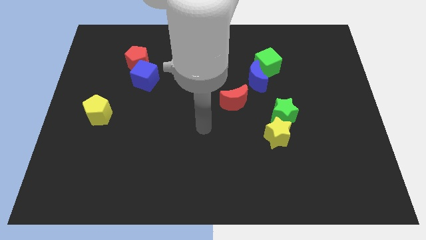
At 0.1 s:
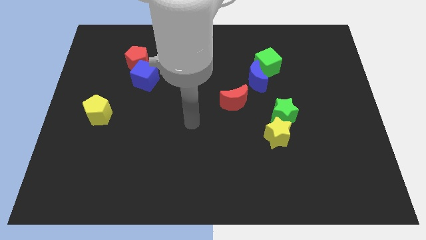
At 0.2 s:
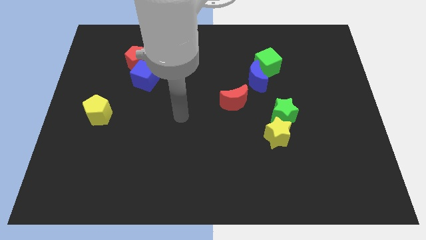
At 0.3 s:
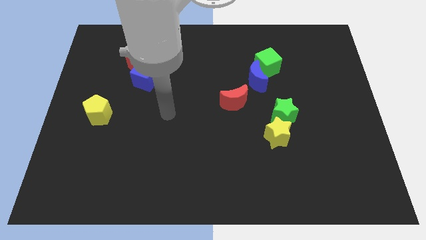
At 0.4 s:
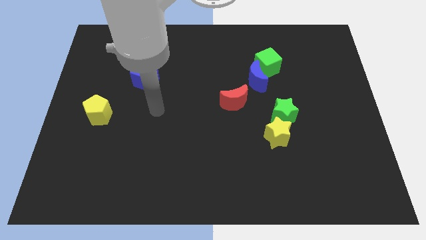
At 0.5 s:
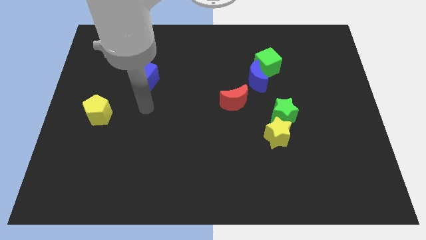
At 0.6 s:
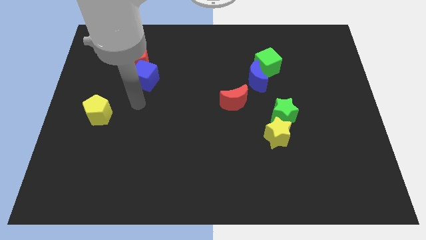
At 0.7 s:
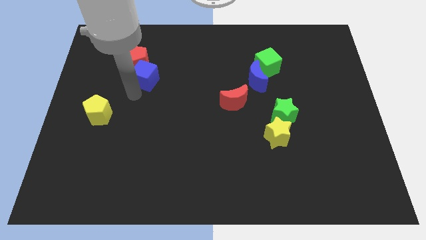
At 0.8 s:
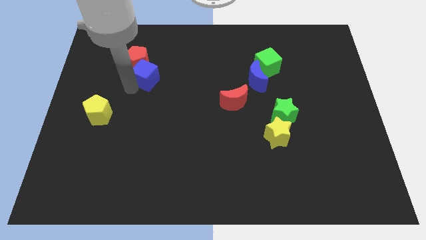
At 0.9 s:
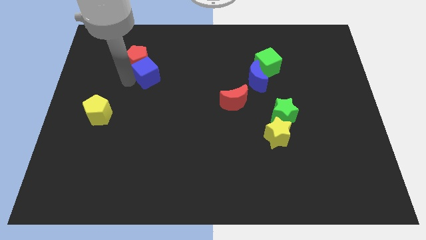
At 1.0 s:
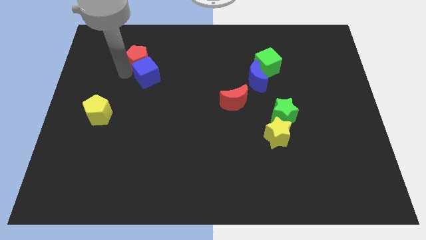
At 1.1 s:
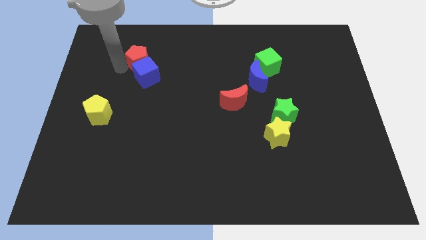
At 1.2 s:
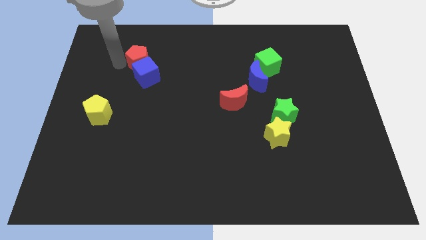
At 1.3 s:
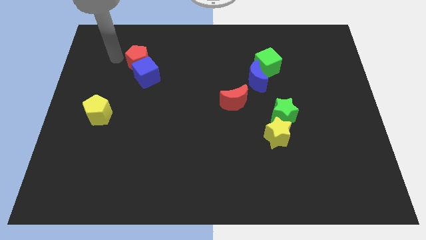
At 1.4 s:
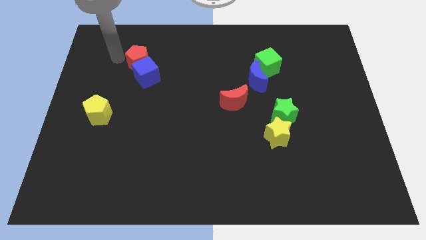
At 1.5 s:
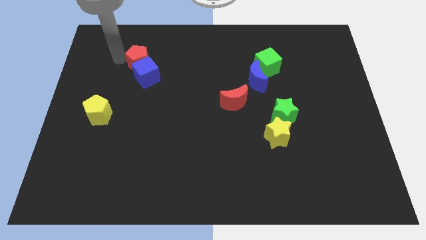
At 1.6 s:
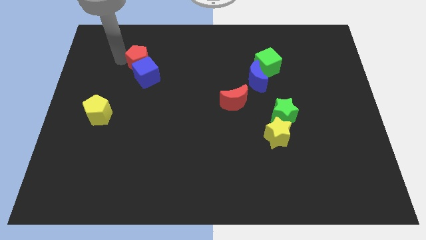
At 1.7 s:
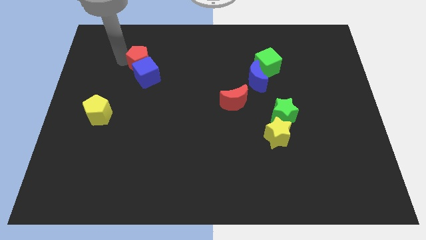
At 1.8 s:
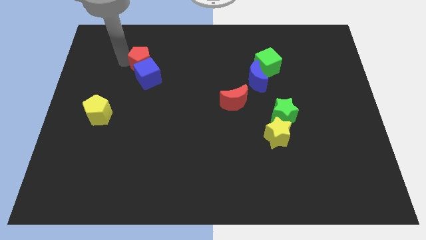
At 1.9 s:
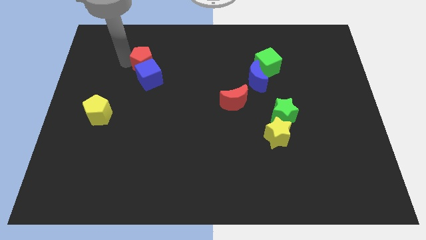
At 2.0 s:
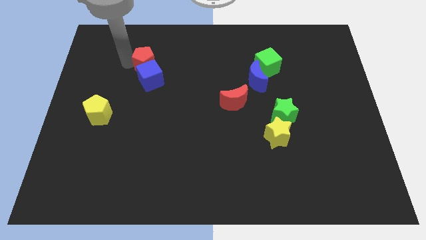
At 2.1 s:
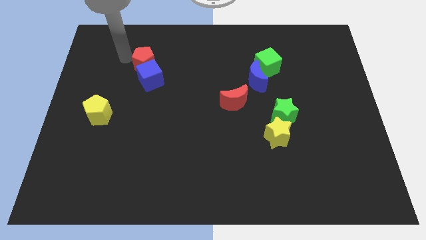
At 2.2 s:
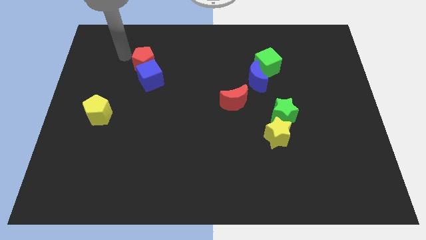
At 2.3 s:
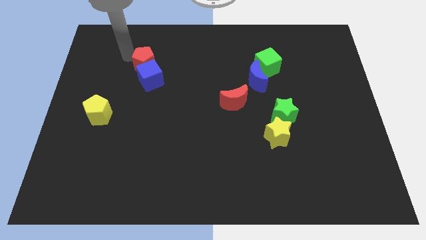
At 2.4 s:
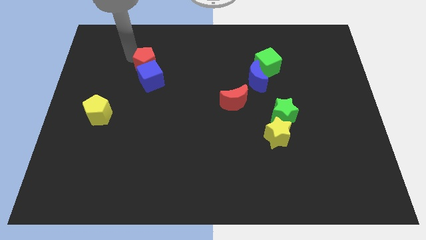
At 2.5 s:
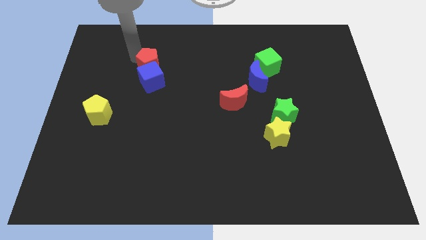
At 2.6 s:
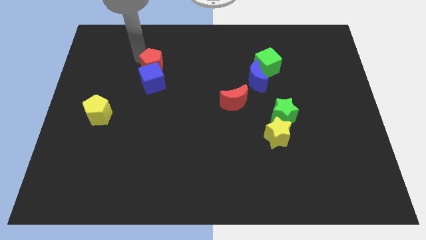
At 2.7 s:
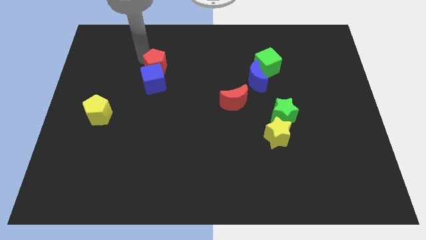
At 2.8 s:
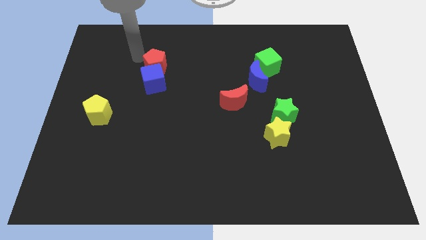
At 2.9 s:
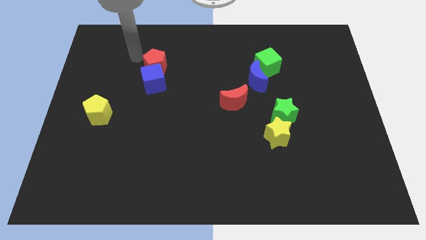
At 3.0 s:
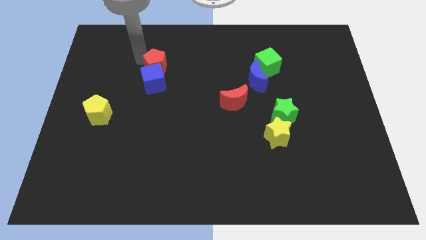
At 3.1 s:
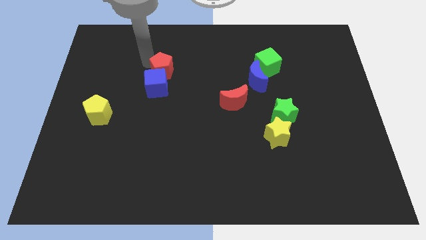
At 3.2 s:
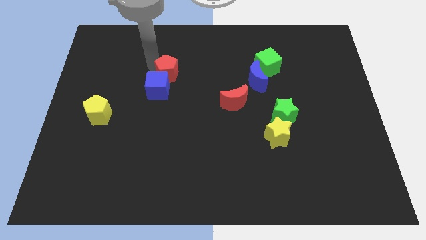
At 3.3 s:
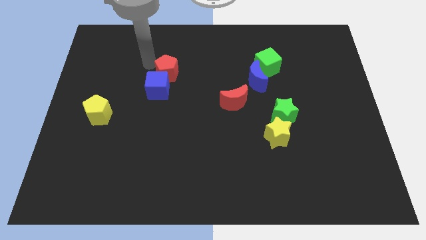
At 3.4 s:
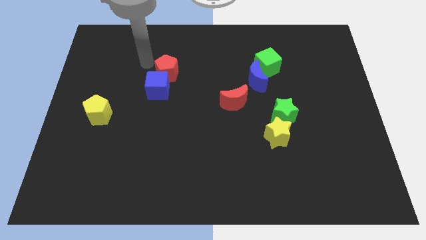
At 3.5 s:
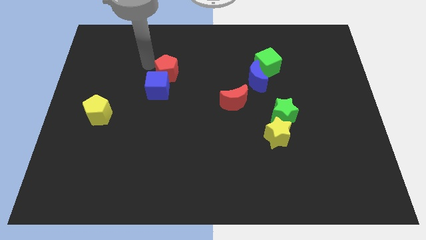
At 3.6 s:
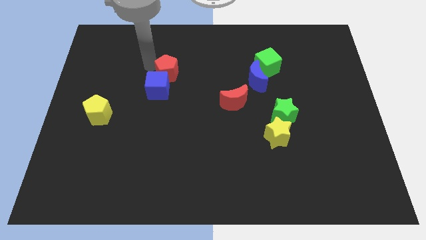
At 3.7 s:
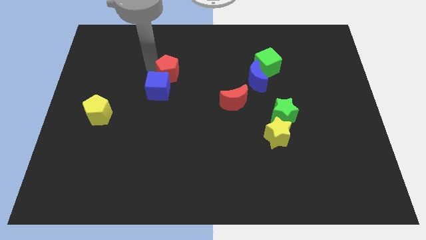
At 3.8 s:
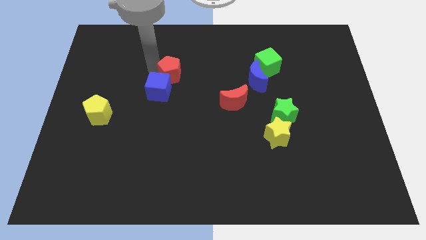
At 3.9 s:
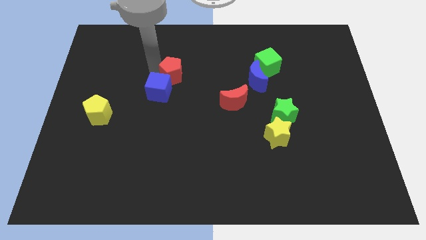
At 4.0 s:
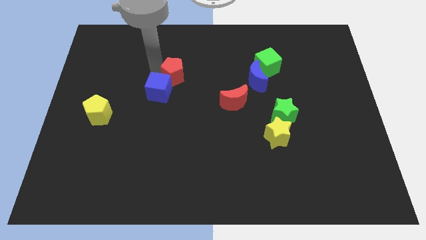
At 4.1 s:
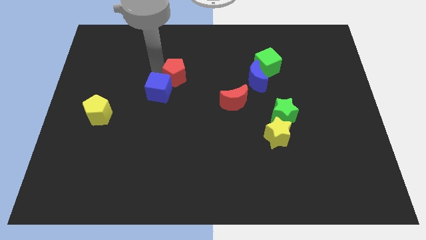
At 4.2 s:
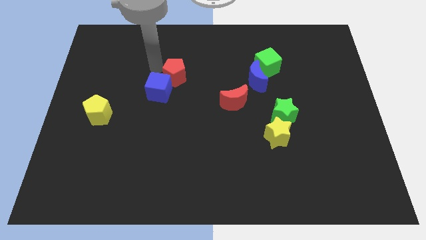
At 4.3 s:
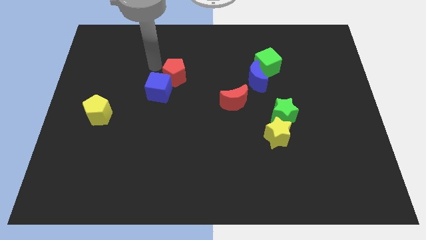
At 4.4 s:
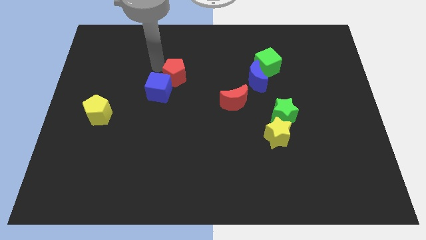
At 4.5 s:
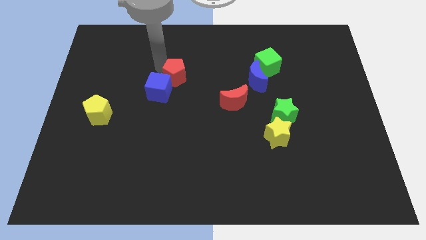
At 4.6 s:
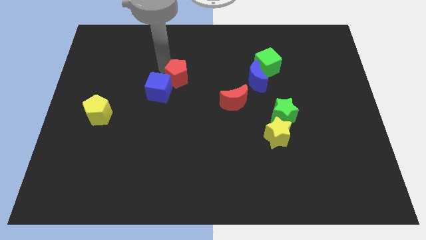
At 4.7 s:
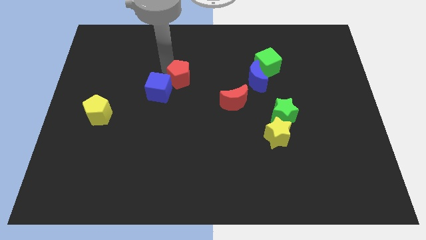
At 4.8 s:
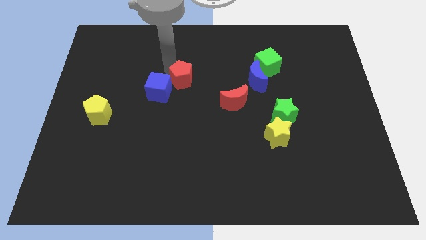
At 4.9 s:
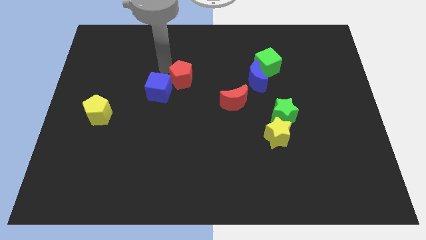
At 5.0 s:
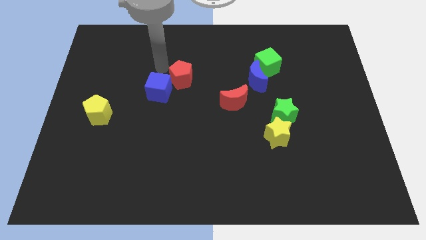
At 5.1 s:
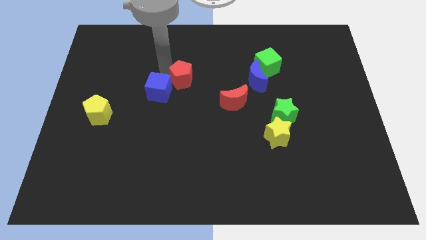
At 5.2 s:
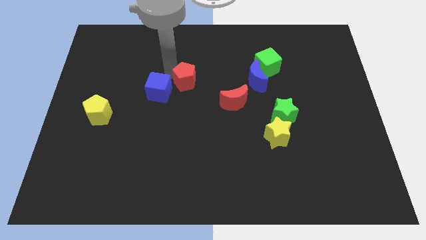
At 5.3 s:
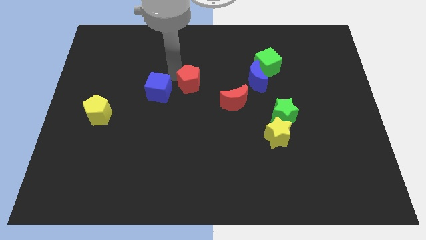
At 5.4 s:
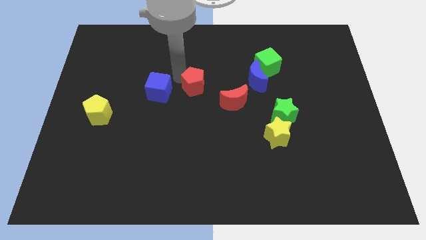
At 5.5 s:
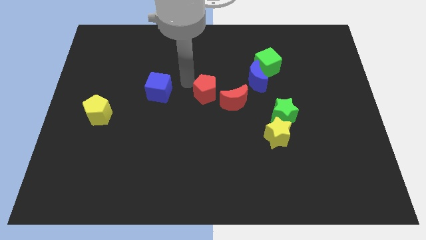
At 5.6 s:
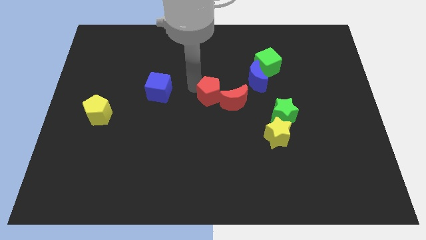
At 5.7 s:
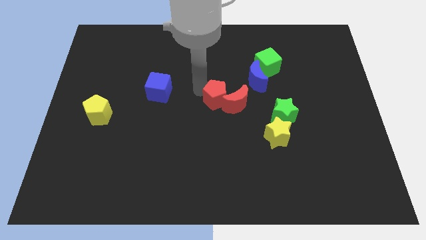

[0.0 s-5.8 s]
slide the red pentagon to the red moon

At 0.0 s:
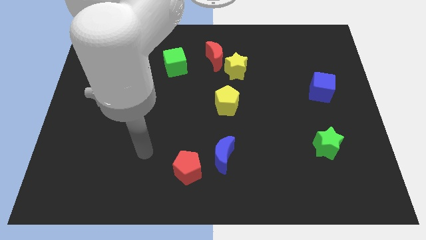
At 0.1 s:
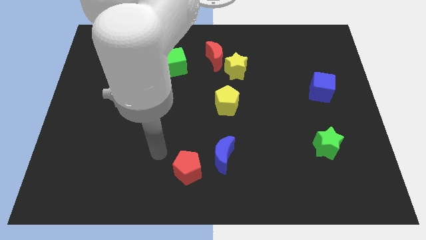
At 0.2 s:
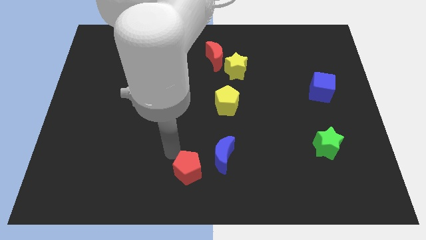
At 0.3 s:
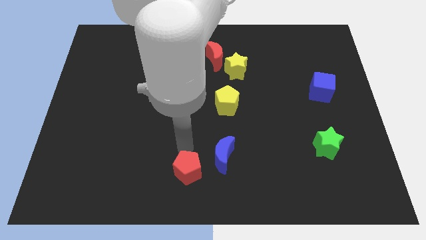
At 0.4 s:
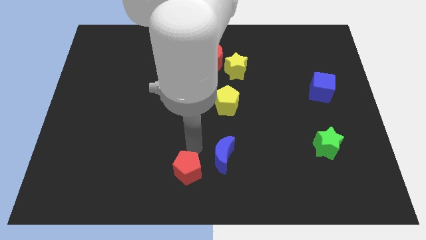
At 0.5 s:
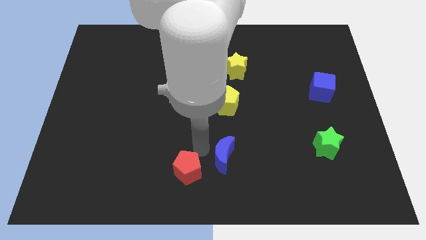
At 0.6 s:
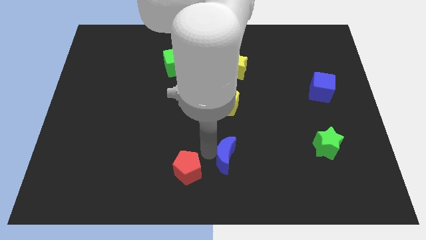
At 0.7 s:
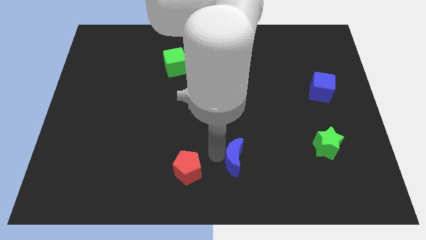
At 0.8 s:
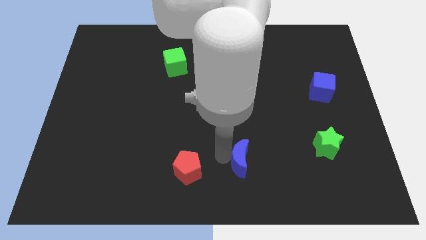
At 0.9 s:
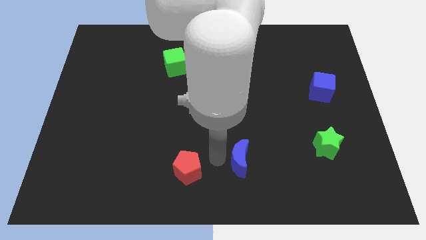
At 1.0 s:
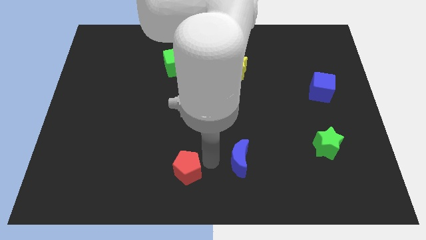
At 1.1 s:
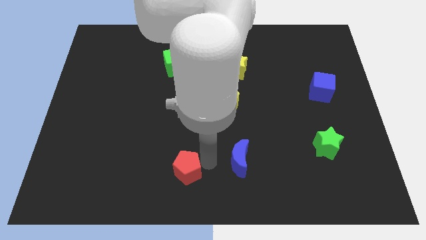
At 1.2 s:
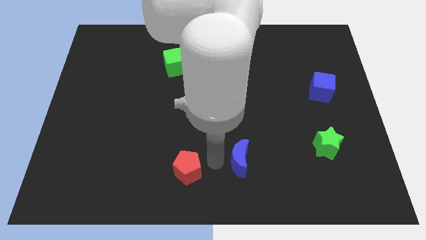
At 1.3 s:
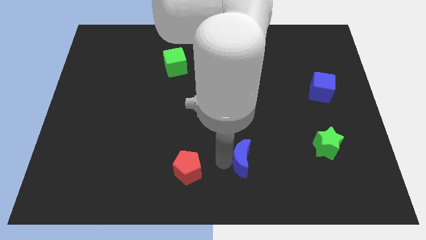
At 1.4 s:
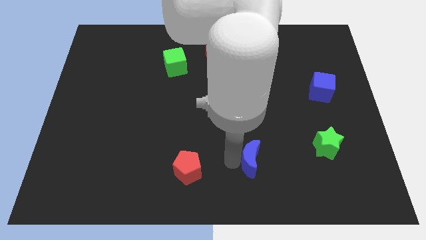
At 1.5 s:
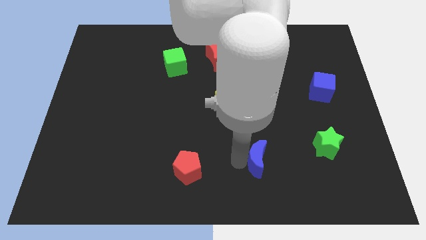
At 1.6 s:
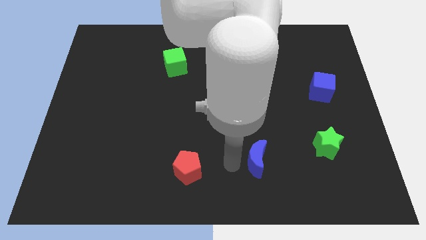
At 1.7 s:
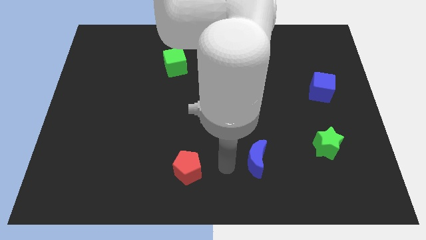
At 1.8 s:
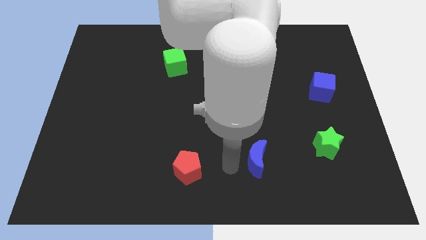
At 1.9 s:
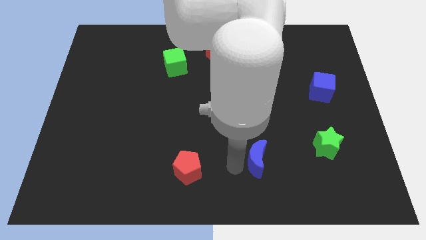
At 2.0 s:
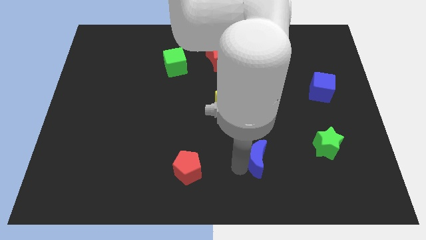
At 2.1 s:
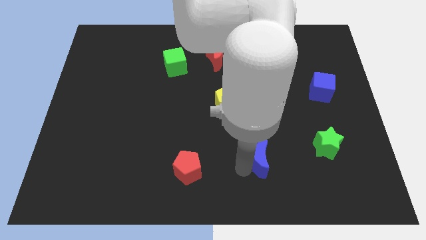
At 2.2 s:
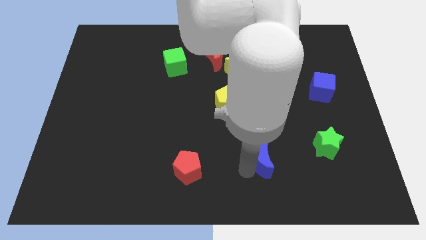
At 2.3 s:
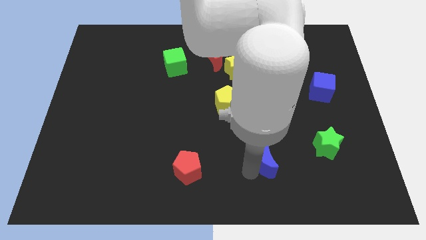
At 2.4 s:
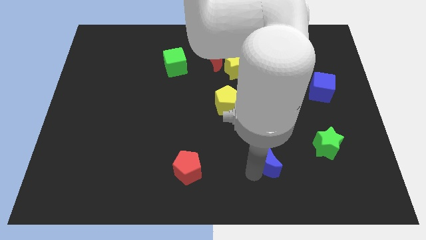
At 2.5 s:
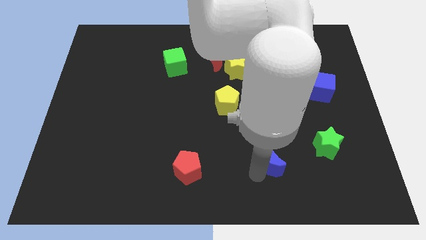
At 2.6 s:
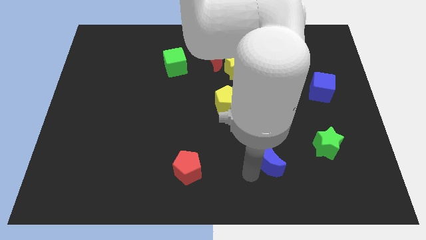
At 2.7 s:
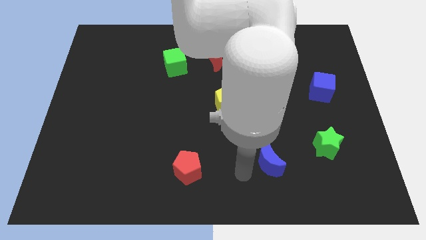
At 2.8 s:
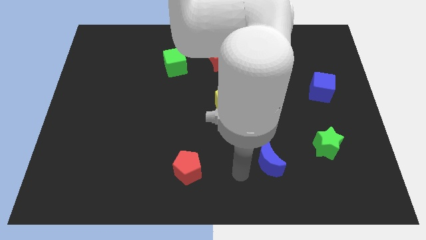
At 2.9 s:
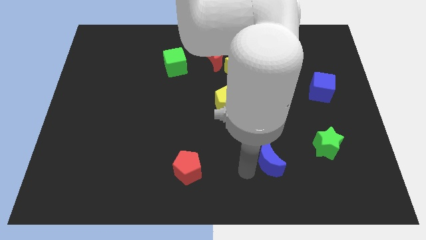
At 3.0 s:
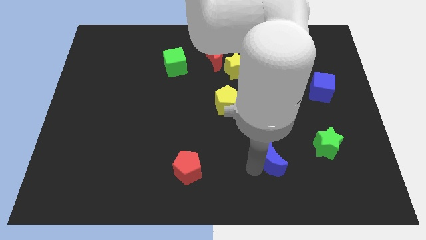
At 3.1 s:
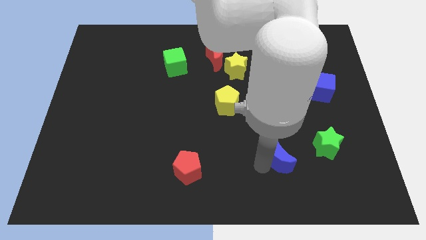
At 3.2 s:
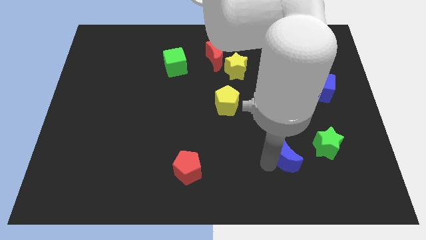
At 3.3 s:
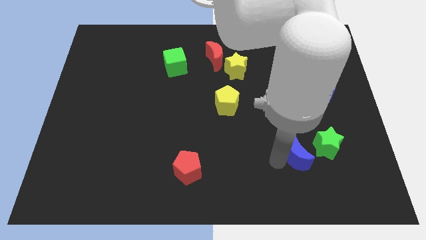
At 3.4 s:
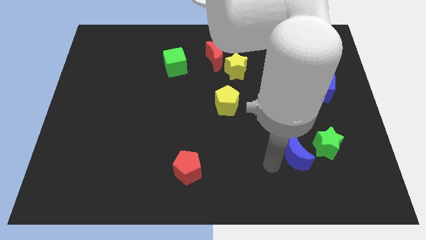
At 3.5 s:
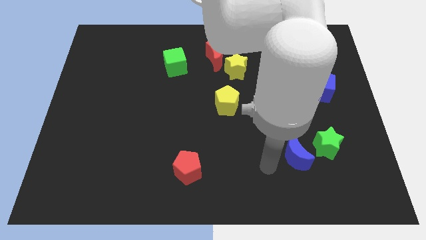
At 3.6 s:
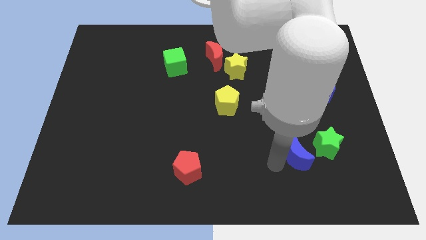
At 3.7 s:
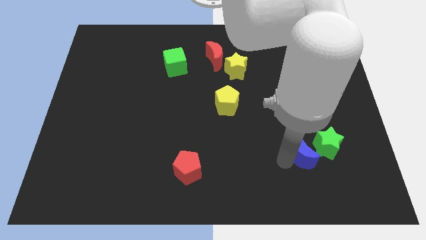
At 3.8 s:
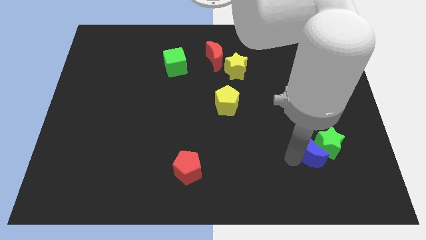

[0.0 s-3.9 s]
push the blue moon to the green star
